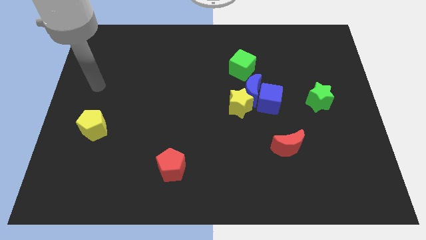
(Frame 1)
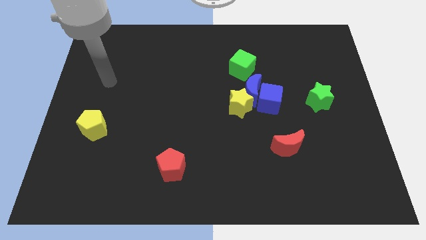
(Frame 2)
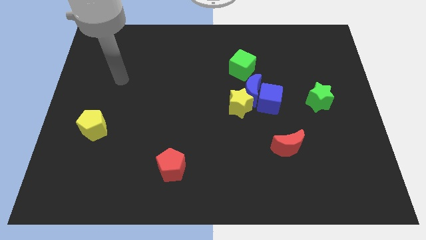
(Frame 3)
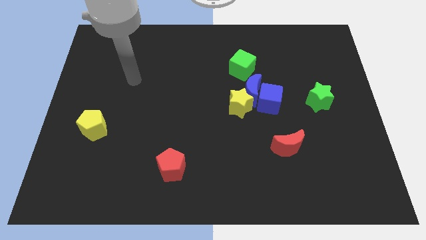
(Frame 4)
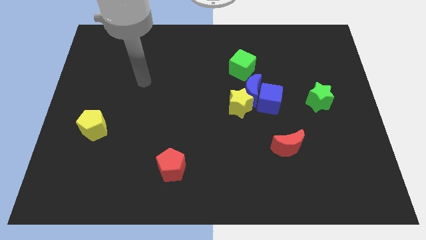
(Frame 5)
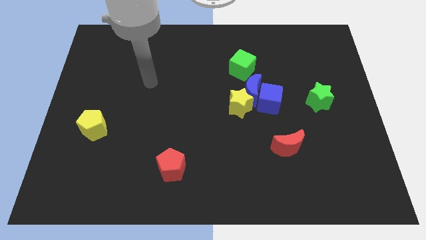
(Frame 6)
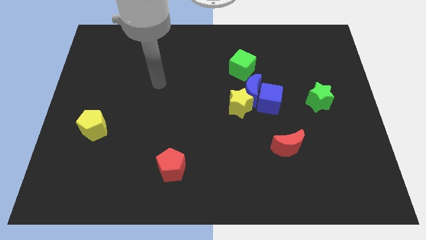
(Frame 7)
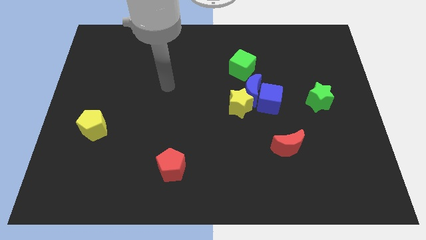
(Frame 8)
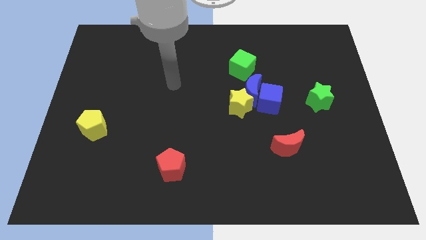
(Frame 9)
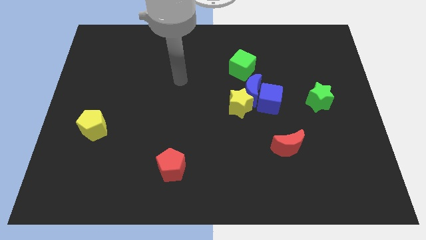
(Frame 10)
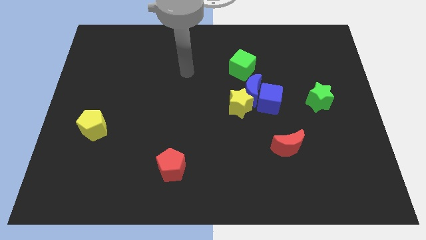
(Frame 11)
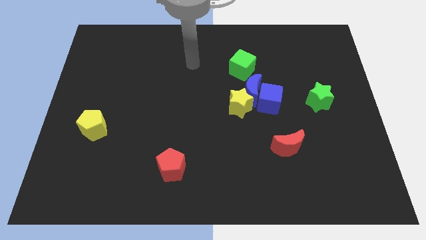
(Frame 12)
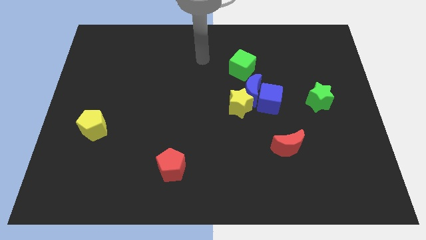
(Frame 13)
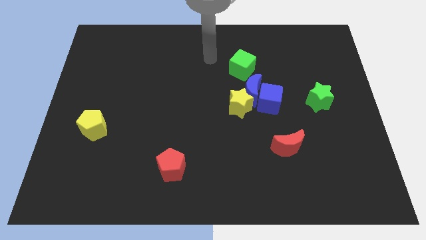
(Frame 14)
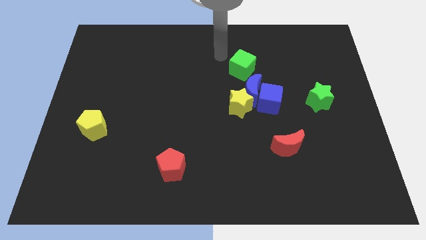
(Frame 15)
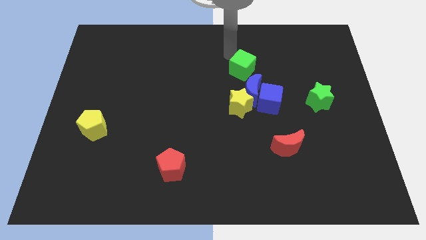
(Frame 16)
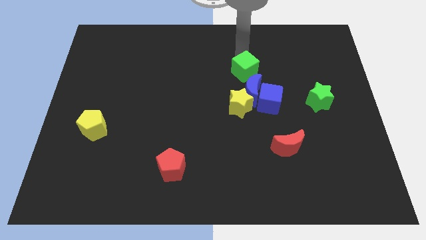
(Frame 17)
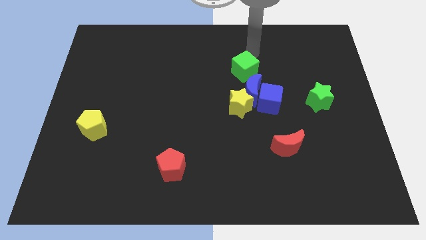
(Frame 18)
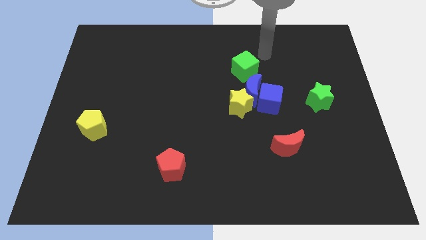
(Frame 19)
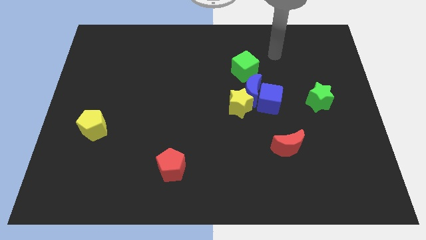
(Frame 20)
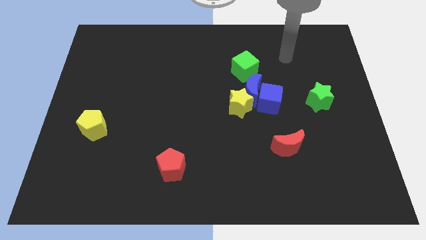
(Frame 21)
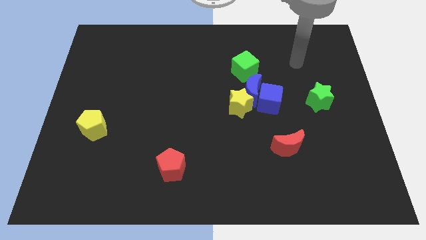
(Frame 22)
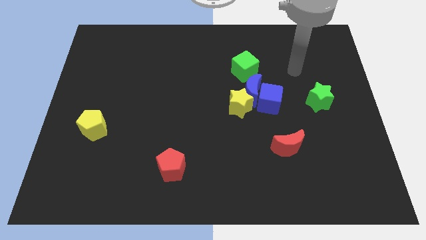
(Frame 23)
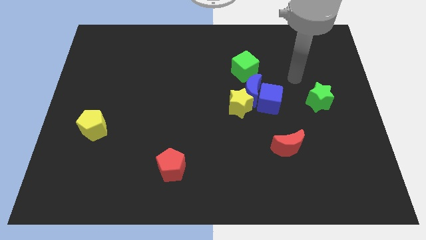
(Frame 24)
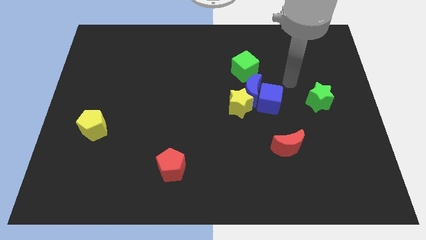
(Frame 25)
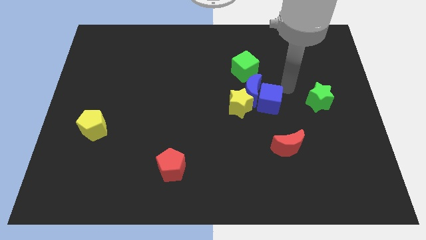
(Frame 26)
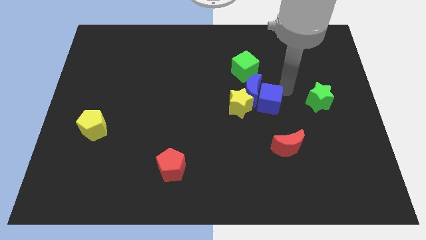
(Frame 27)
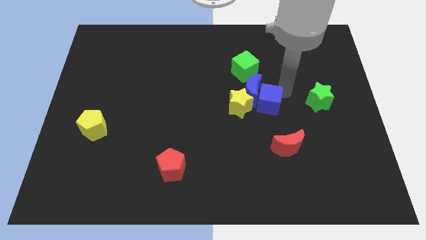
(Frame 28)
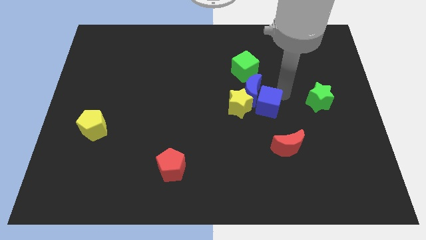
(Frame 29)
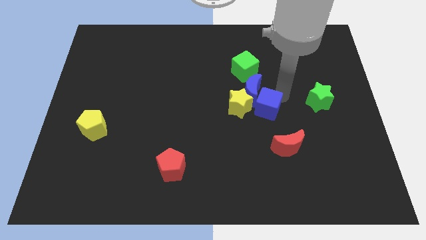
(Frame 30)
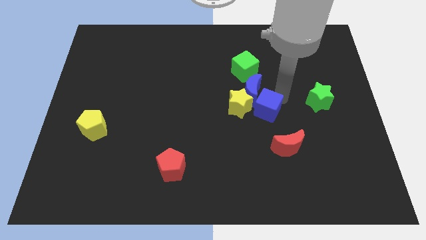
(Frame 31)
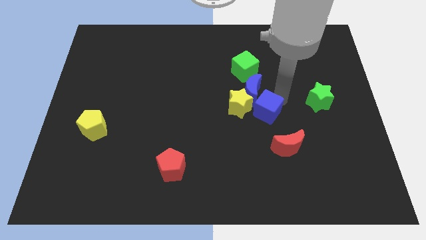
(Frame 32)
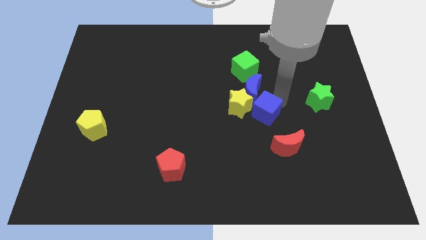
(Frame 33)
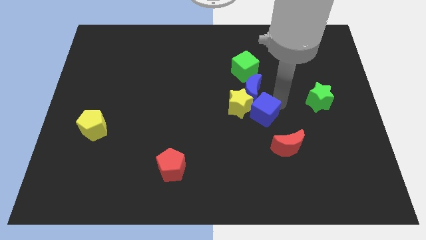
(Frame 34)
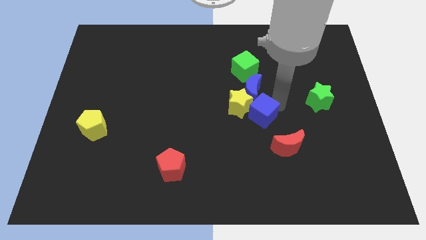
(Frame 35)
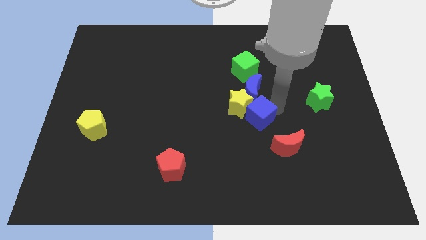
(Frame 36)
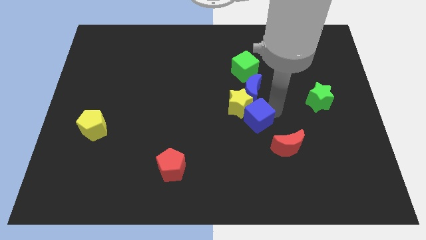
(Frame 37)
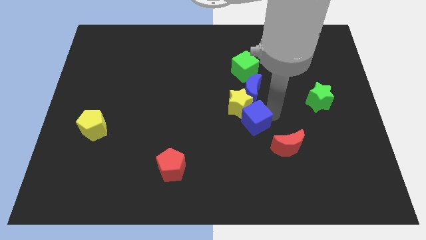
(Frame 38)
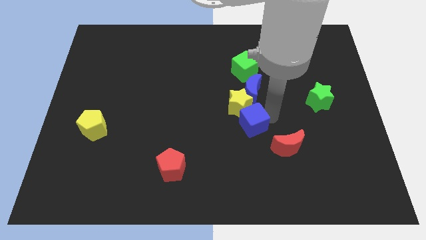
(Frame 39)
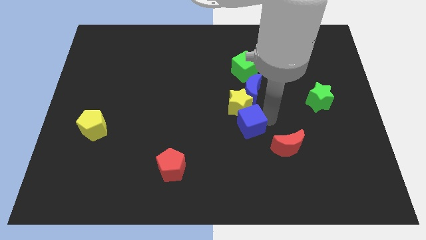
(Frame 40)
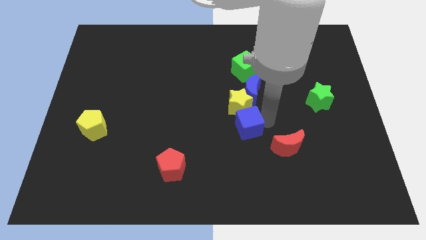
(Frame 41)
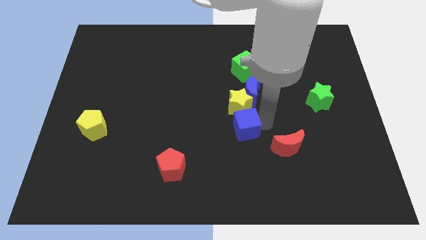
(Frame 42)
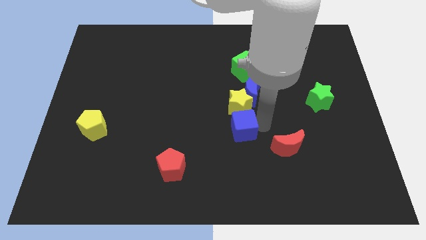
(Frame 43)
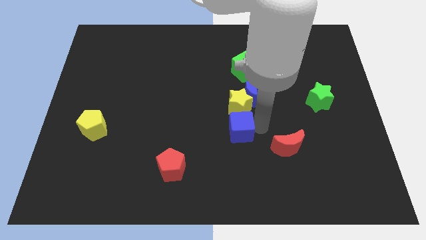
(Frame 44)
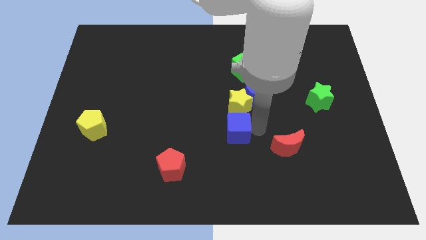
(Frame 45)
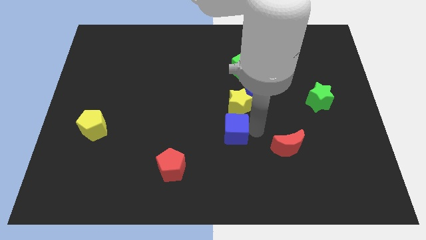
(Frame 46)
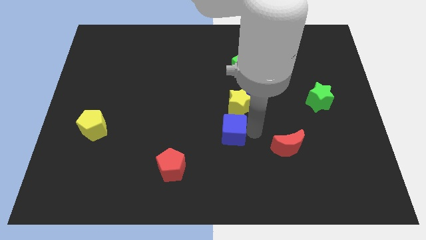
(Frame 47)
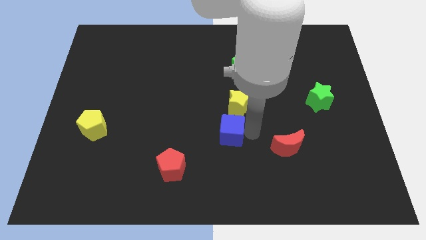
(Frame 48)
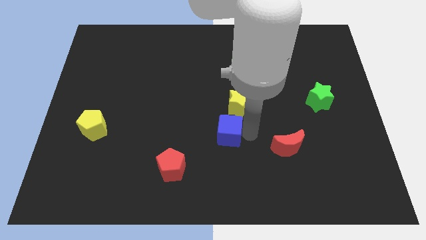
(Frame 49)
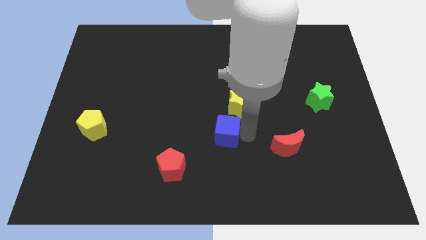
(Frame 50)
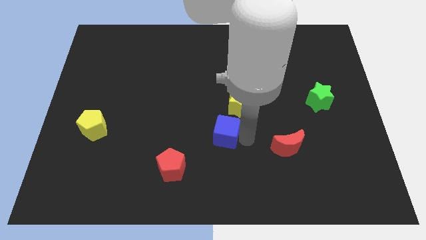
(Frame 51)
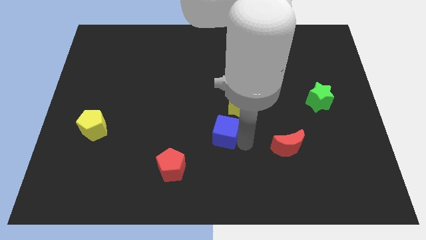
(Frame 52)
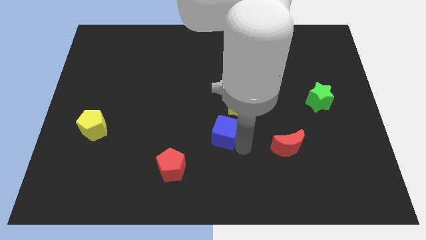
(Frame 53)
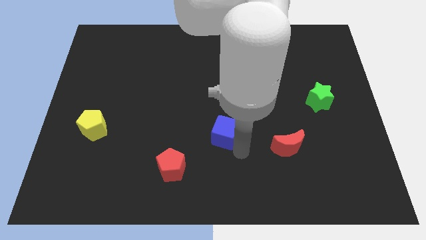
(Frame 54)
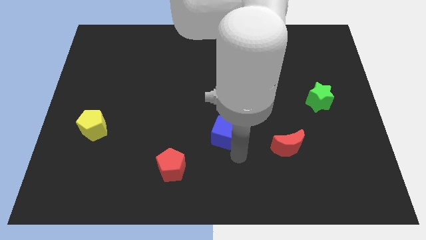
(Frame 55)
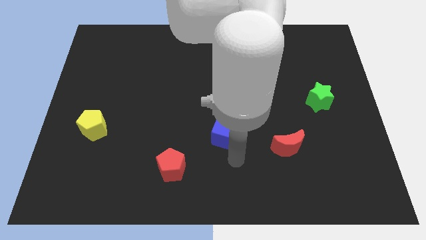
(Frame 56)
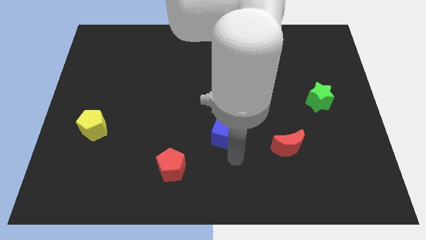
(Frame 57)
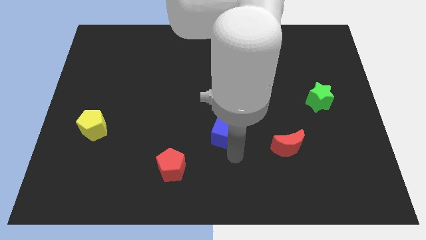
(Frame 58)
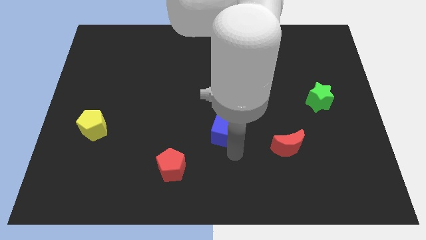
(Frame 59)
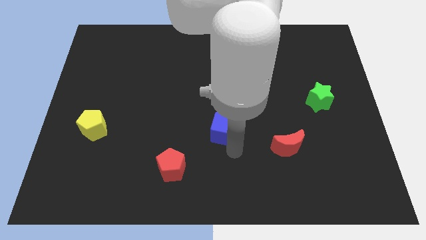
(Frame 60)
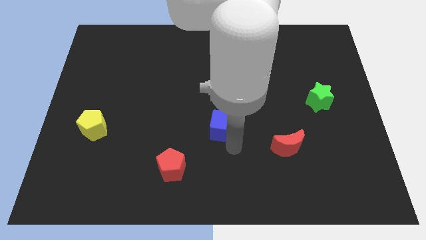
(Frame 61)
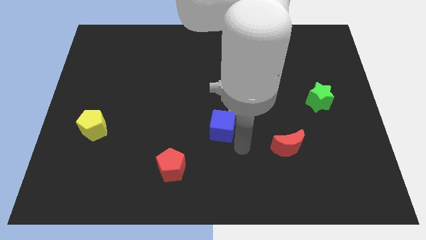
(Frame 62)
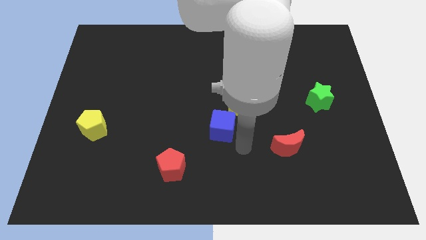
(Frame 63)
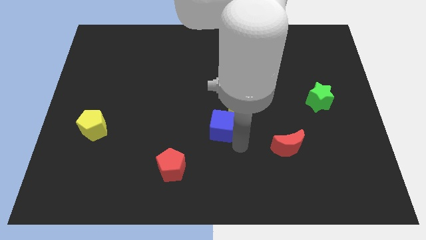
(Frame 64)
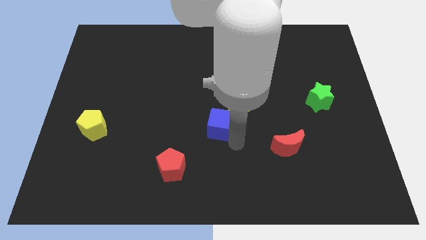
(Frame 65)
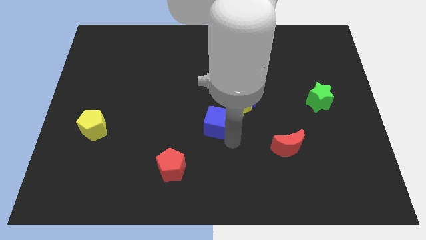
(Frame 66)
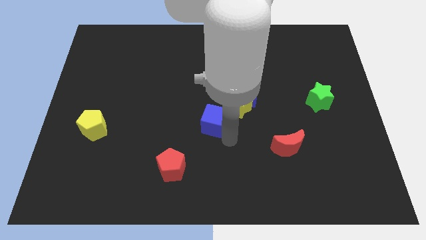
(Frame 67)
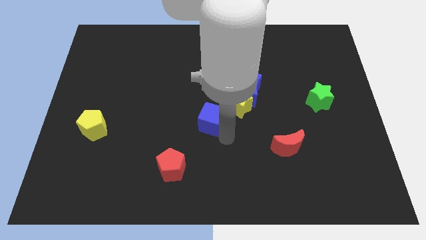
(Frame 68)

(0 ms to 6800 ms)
slide the blue cube to the left of the yellow star

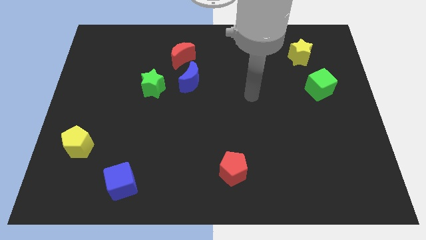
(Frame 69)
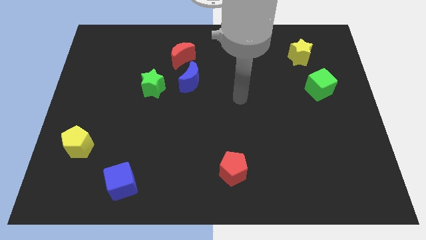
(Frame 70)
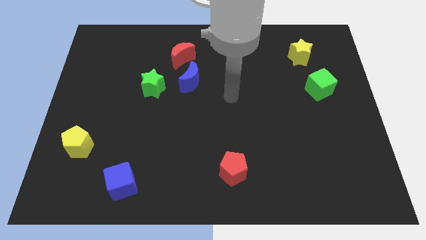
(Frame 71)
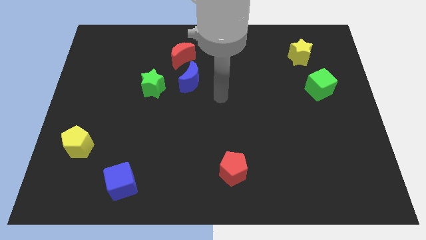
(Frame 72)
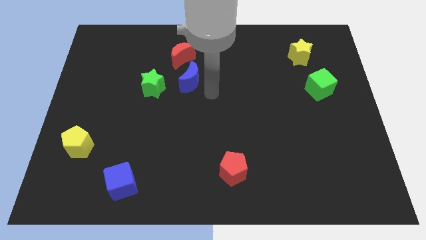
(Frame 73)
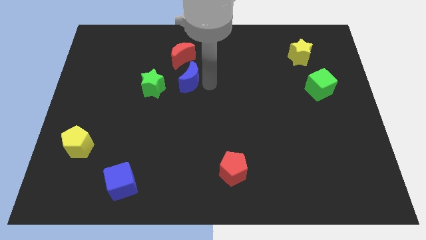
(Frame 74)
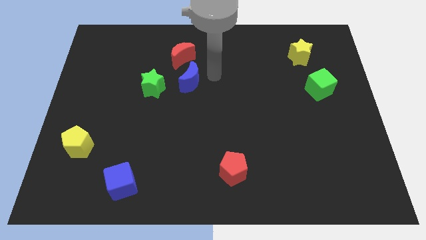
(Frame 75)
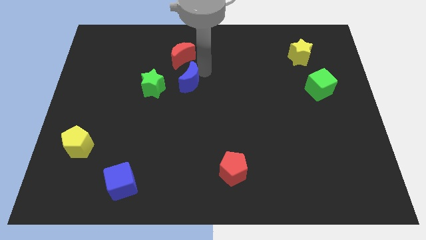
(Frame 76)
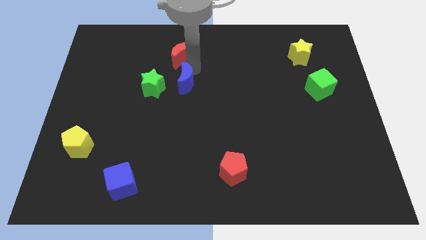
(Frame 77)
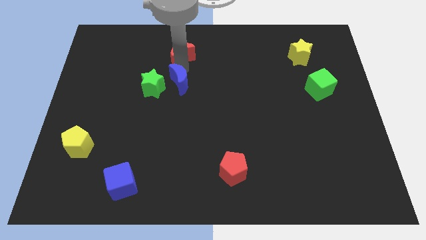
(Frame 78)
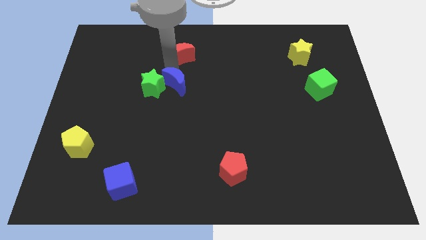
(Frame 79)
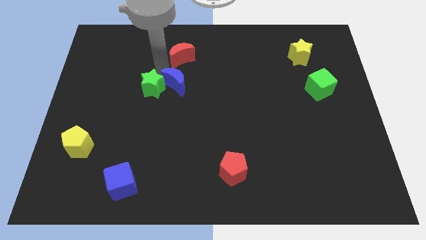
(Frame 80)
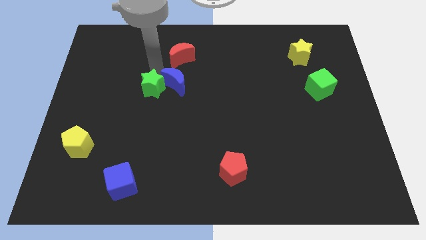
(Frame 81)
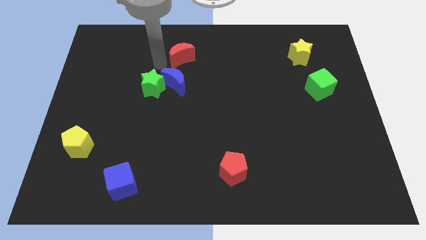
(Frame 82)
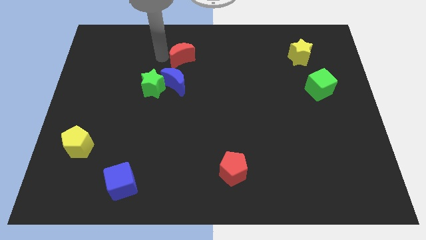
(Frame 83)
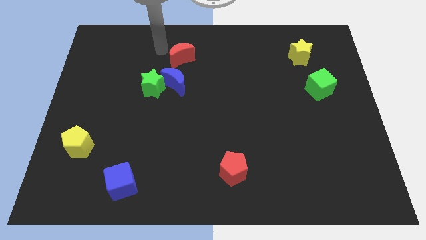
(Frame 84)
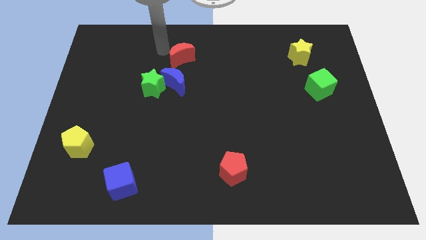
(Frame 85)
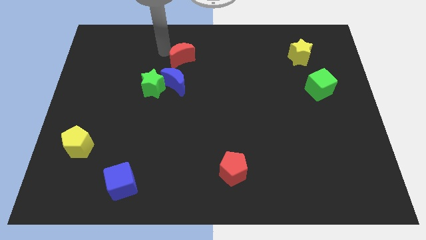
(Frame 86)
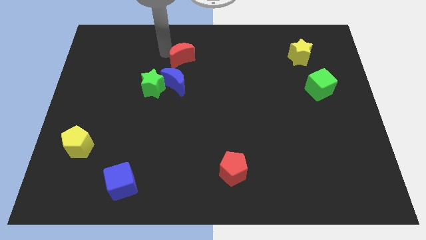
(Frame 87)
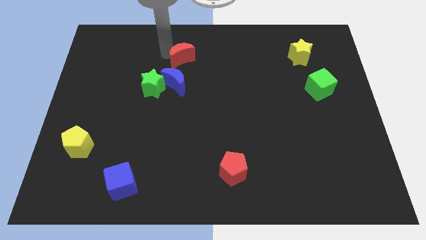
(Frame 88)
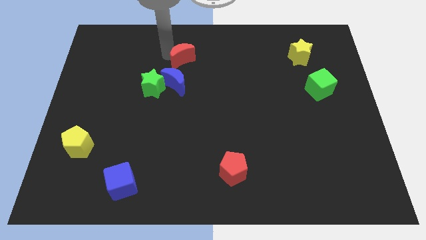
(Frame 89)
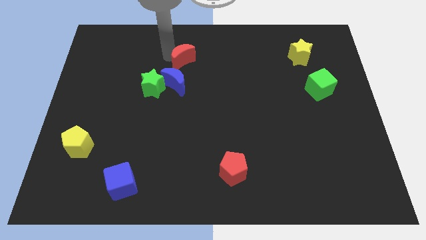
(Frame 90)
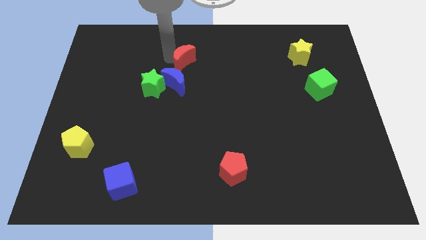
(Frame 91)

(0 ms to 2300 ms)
move the red moon to the top right of the blue moon
